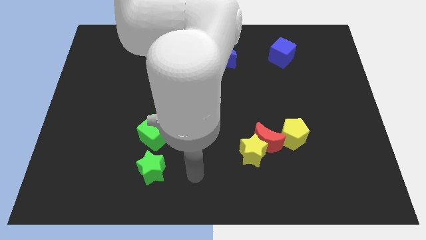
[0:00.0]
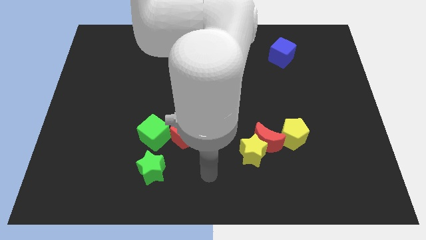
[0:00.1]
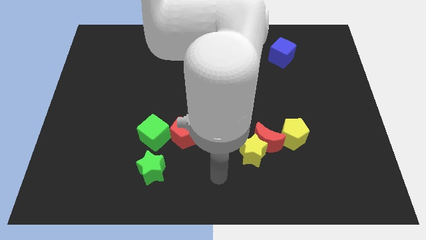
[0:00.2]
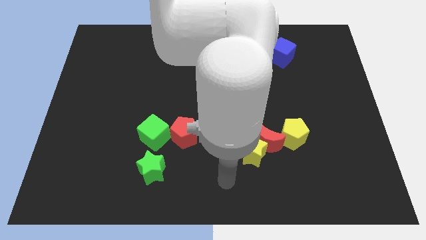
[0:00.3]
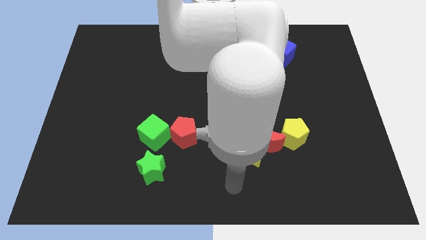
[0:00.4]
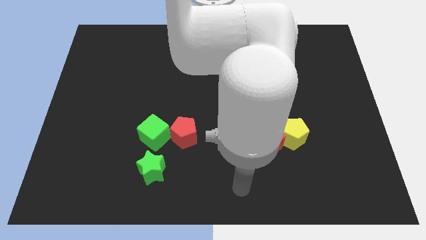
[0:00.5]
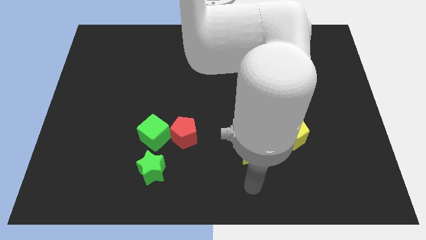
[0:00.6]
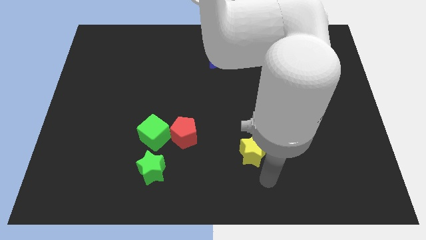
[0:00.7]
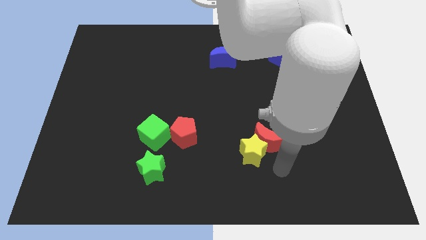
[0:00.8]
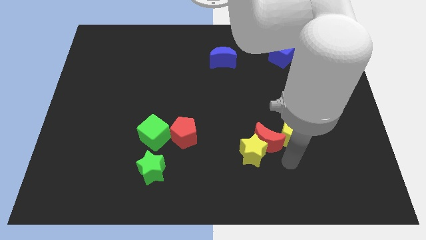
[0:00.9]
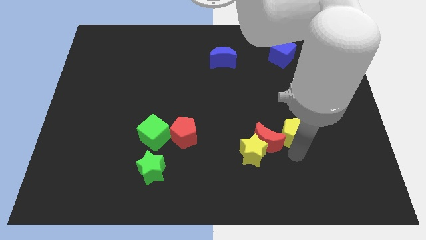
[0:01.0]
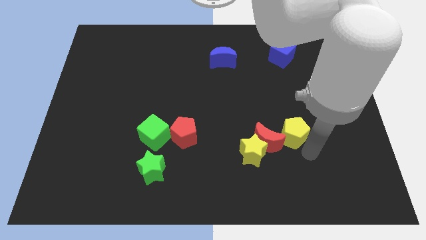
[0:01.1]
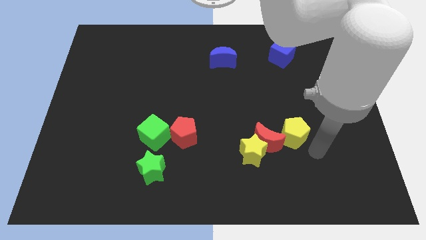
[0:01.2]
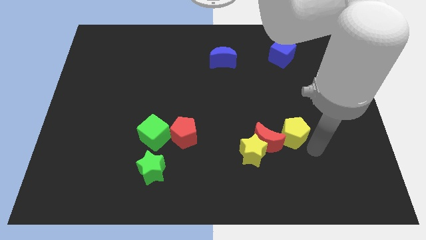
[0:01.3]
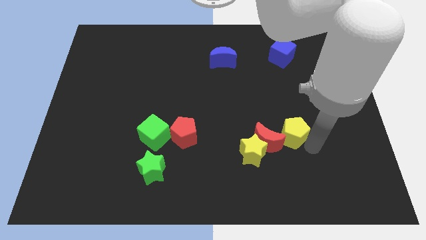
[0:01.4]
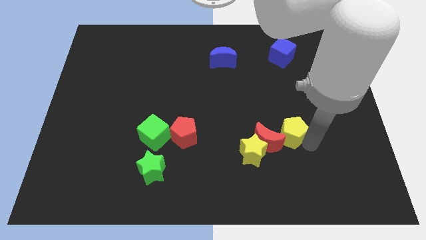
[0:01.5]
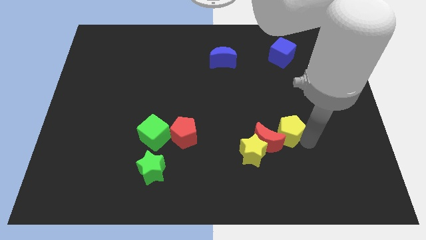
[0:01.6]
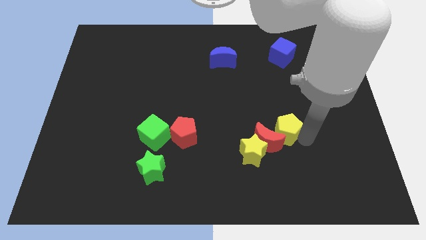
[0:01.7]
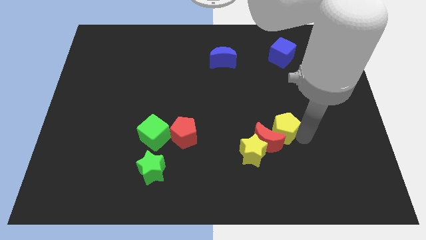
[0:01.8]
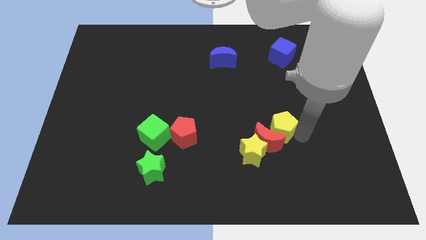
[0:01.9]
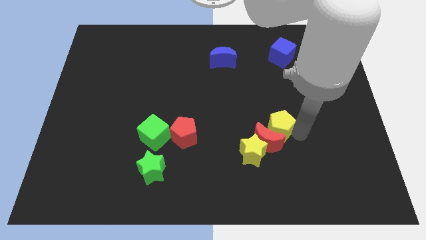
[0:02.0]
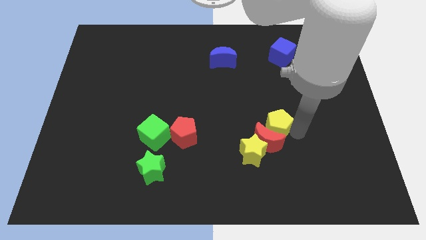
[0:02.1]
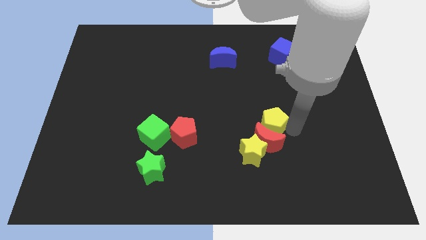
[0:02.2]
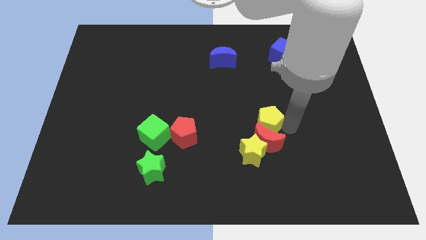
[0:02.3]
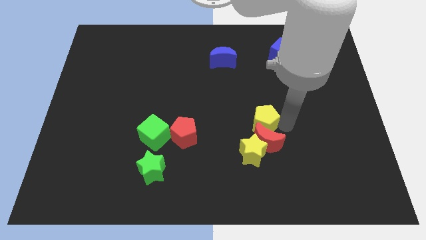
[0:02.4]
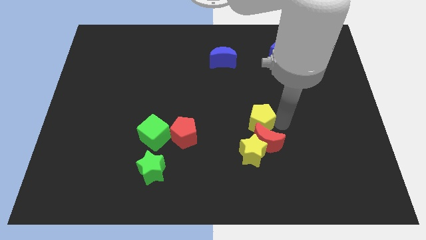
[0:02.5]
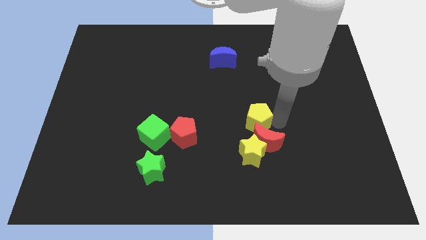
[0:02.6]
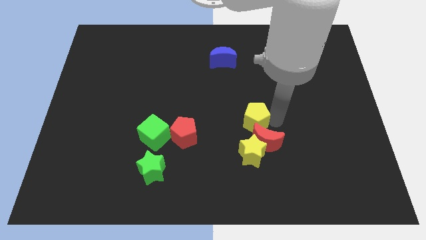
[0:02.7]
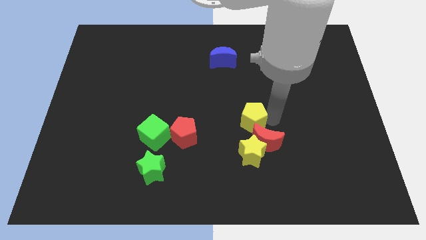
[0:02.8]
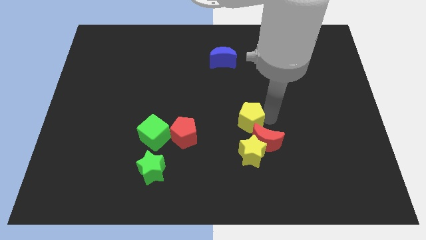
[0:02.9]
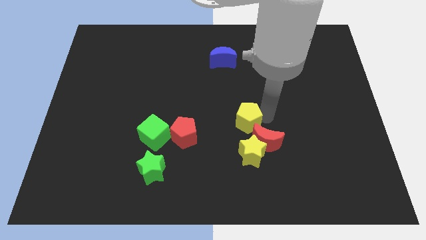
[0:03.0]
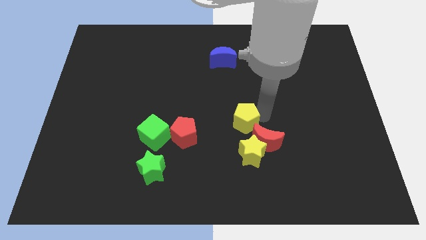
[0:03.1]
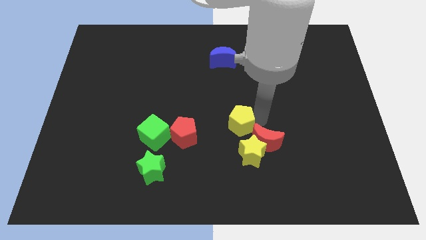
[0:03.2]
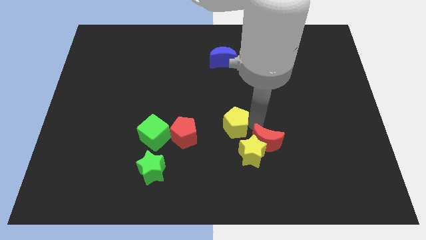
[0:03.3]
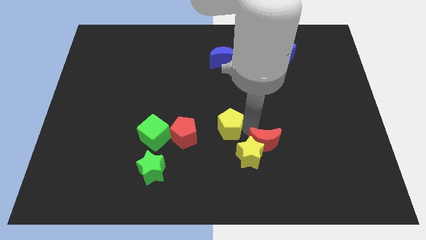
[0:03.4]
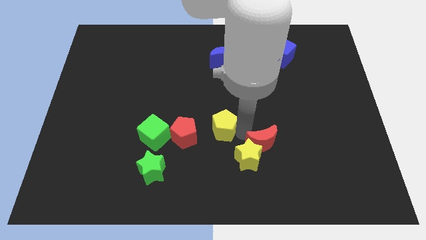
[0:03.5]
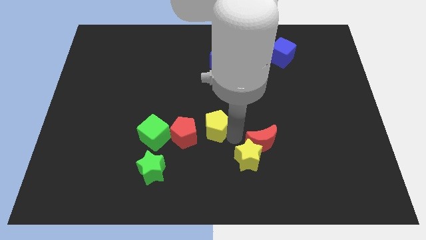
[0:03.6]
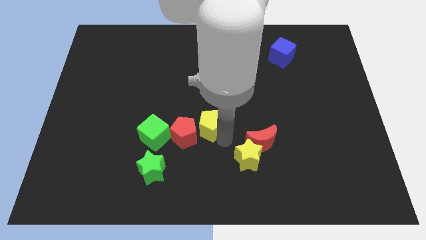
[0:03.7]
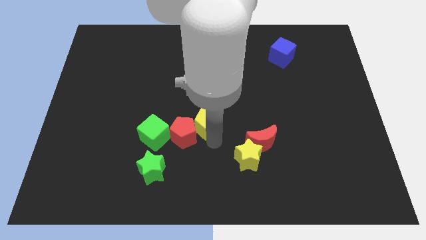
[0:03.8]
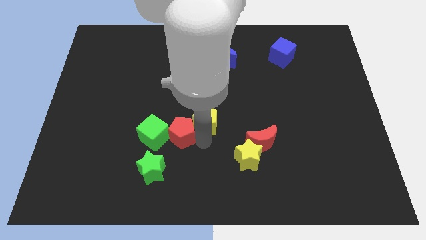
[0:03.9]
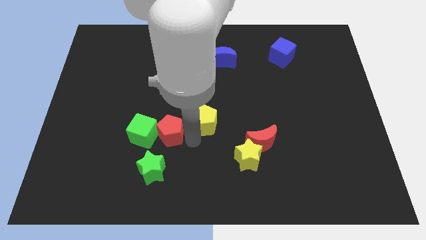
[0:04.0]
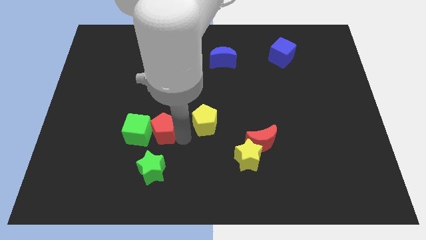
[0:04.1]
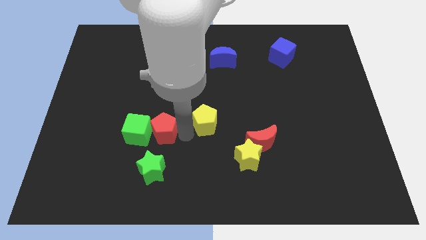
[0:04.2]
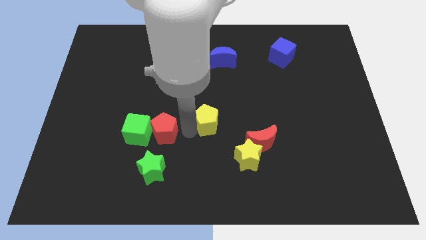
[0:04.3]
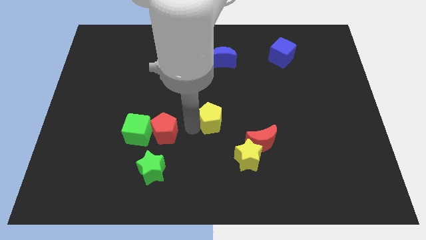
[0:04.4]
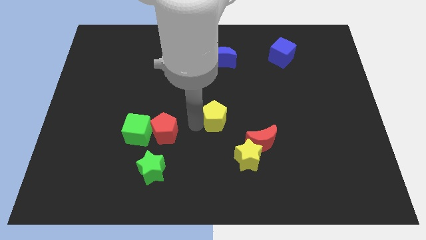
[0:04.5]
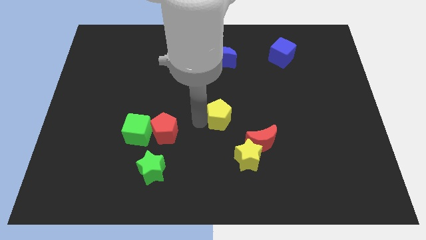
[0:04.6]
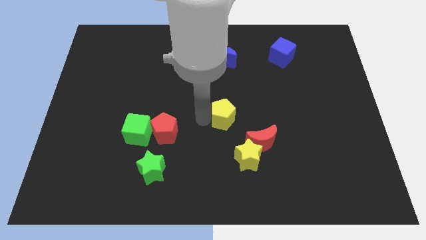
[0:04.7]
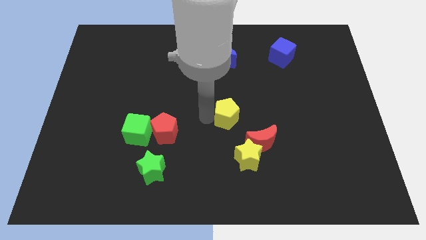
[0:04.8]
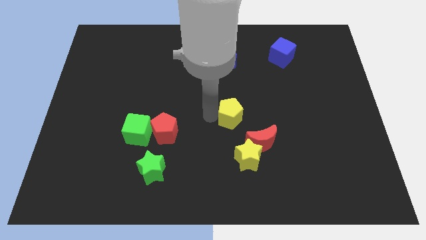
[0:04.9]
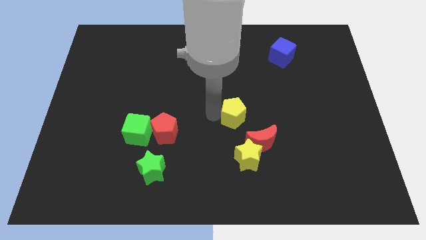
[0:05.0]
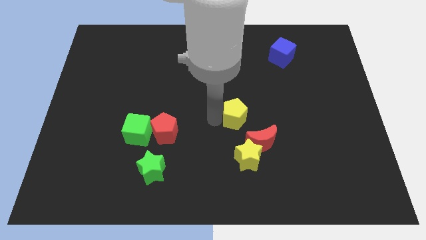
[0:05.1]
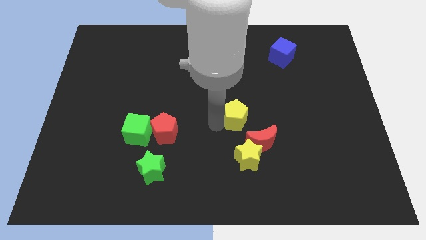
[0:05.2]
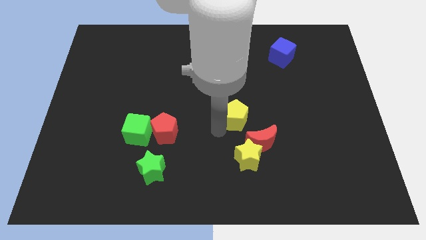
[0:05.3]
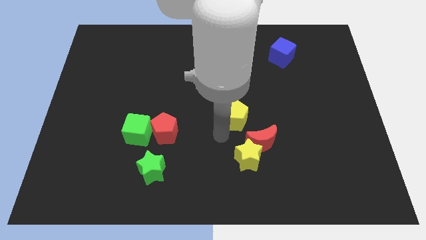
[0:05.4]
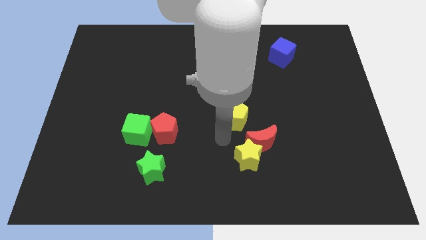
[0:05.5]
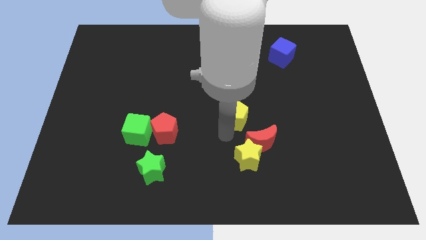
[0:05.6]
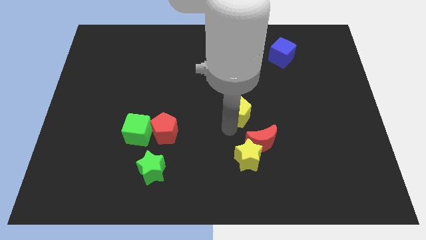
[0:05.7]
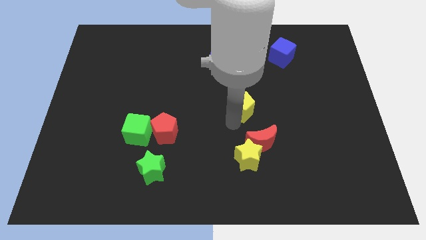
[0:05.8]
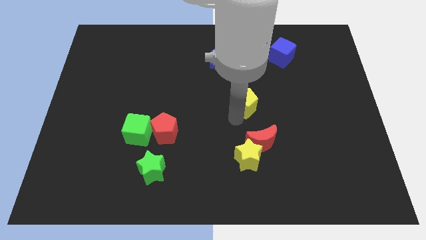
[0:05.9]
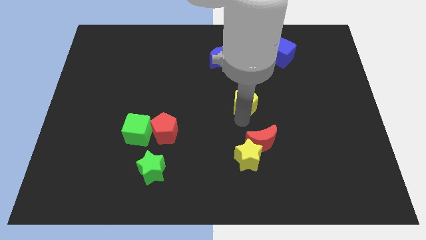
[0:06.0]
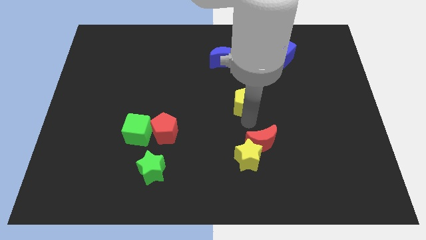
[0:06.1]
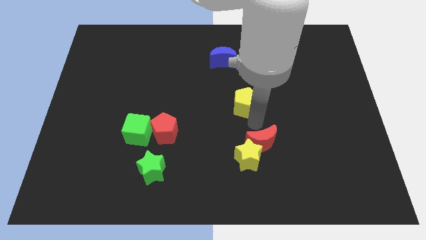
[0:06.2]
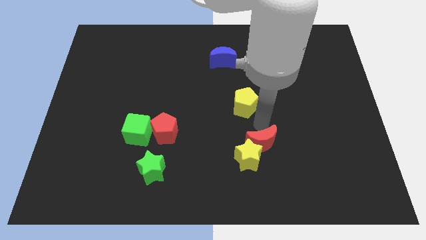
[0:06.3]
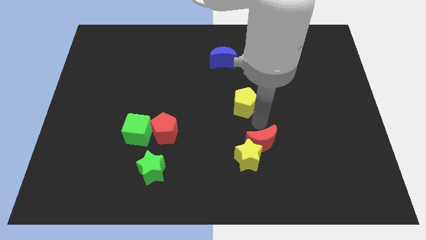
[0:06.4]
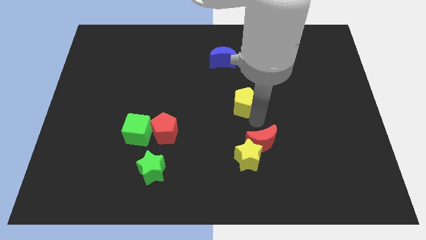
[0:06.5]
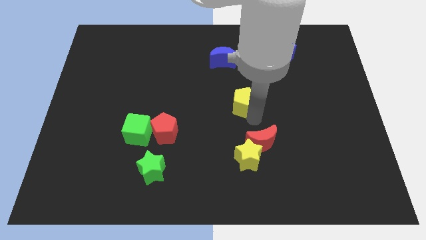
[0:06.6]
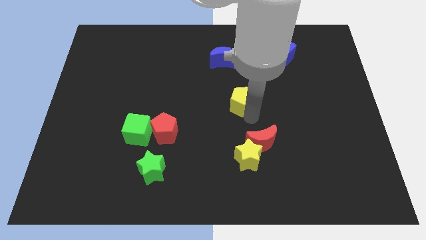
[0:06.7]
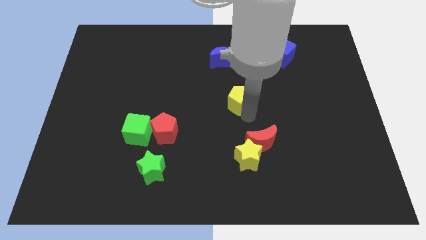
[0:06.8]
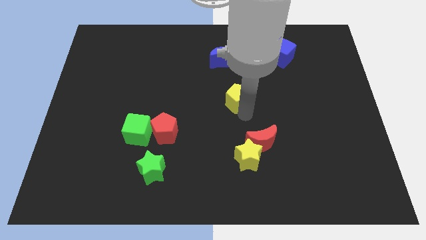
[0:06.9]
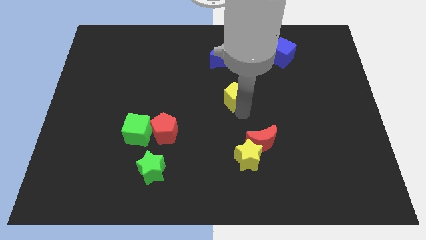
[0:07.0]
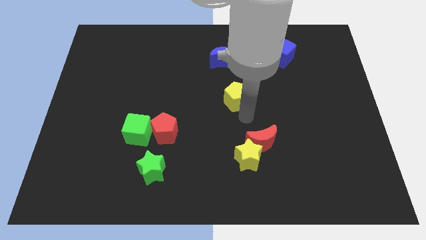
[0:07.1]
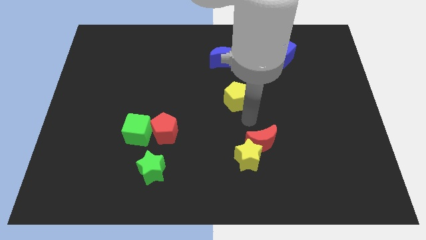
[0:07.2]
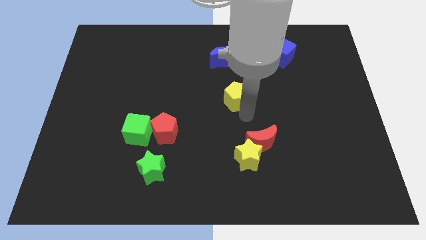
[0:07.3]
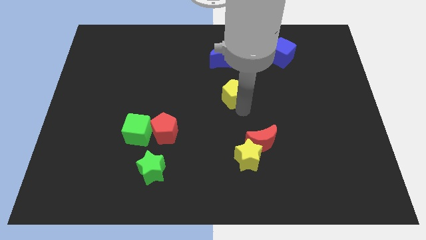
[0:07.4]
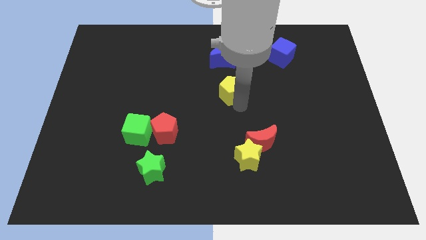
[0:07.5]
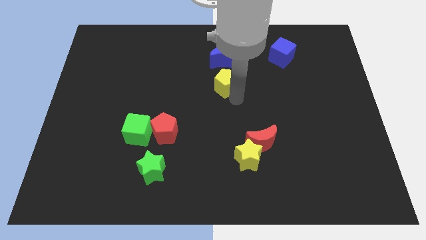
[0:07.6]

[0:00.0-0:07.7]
slide the yellow pentagon up and left diagonally

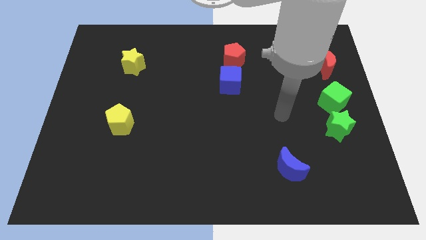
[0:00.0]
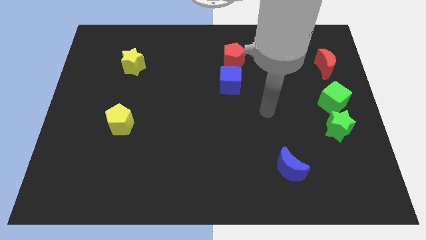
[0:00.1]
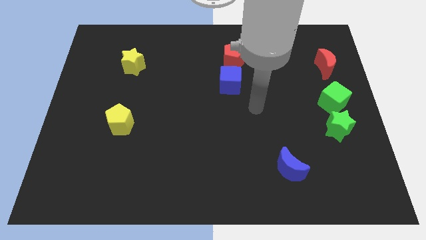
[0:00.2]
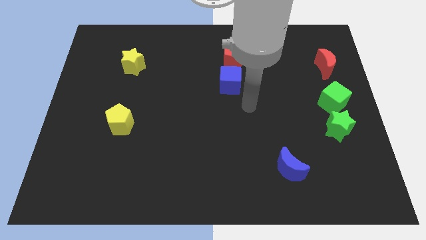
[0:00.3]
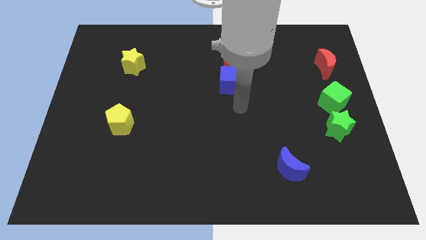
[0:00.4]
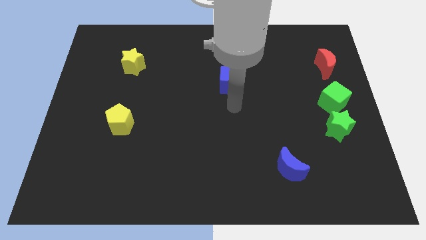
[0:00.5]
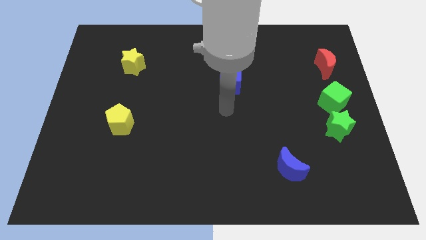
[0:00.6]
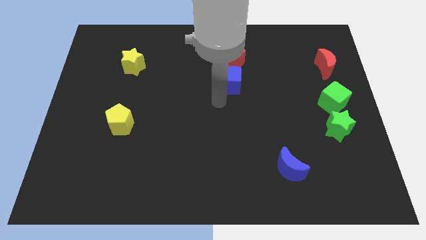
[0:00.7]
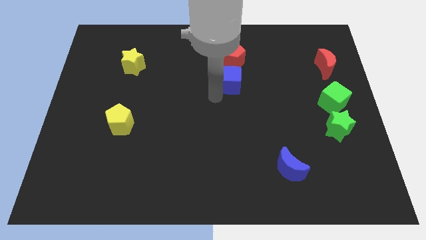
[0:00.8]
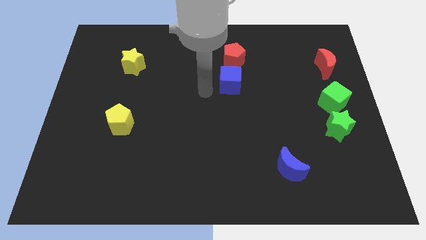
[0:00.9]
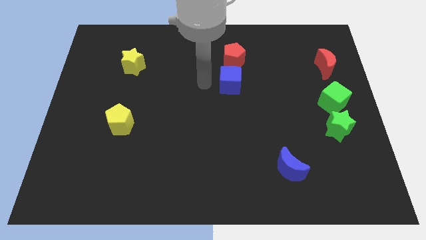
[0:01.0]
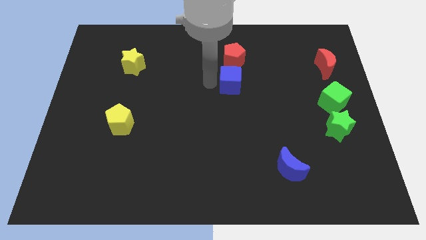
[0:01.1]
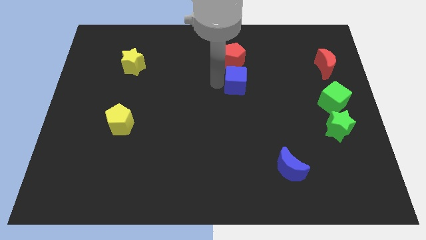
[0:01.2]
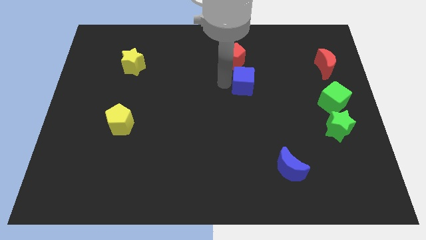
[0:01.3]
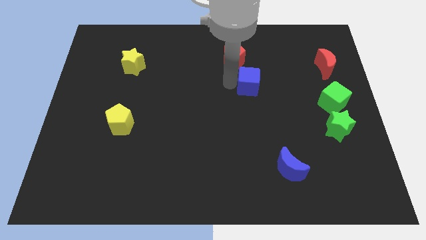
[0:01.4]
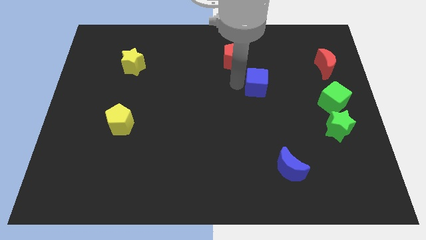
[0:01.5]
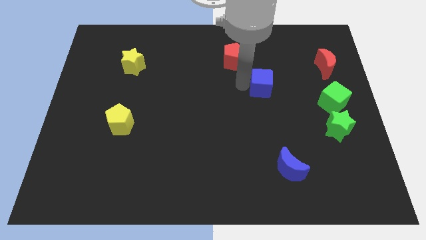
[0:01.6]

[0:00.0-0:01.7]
slightly slide the blue cube to the right
